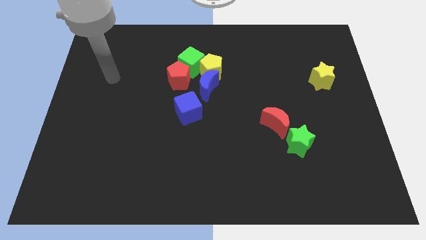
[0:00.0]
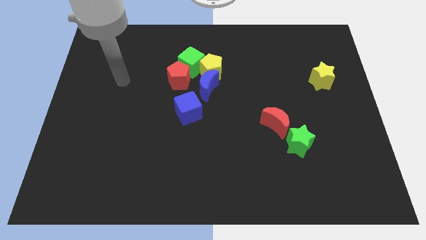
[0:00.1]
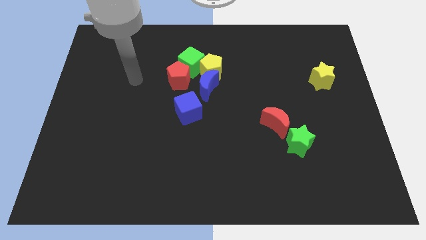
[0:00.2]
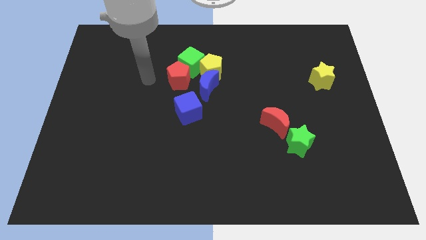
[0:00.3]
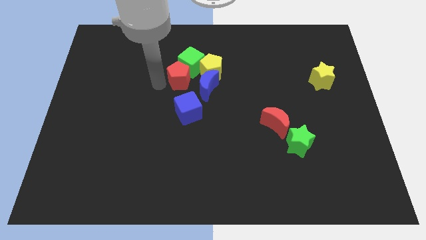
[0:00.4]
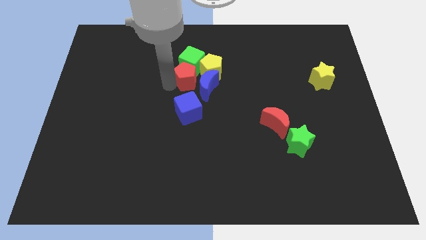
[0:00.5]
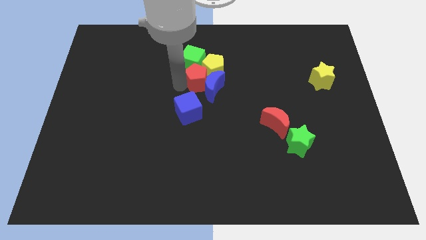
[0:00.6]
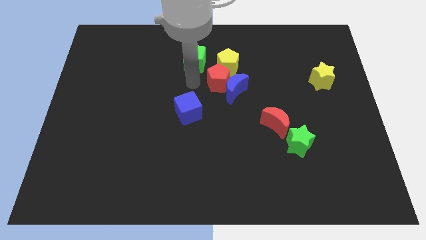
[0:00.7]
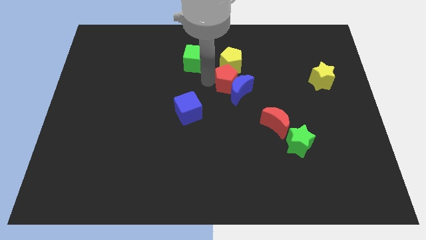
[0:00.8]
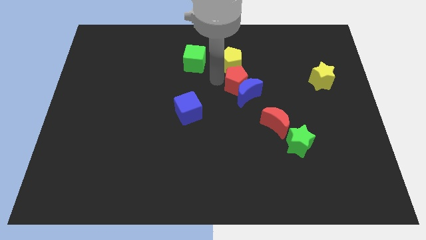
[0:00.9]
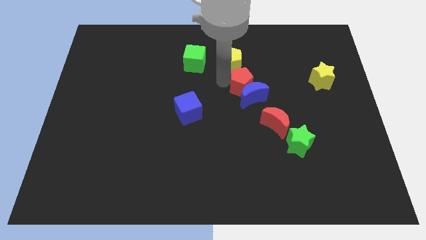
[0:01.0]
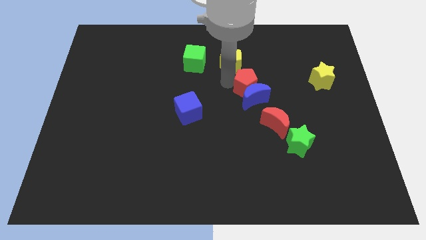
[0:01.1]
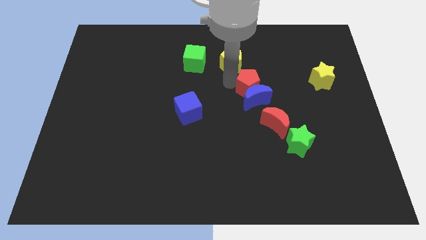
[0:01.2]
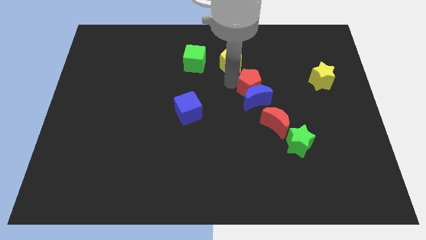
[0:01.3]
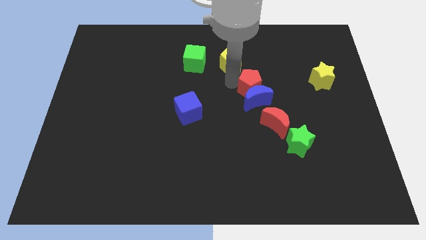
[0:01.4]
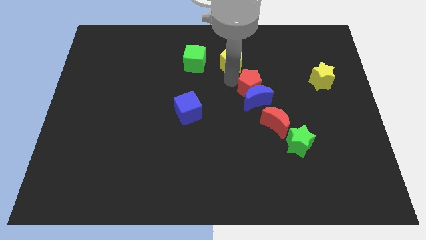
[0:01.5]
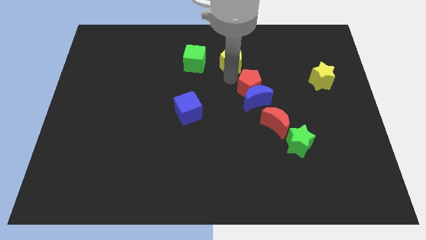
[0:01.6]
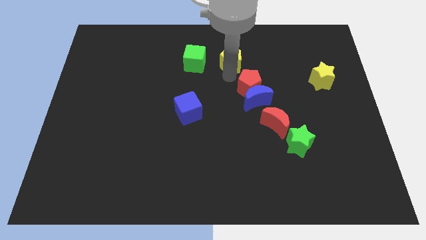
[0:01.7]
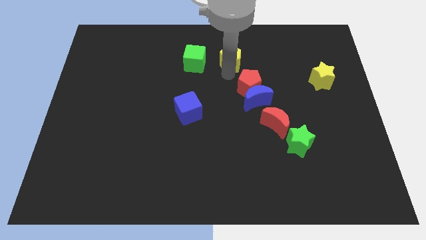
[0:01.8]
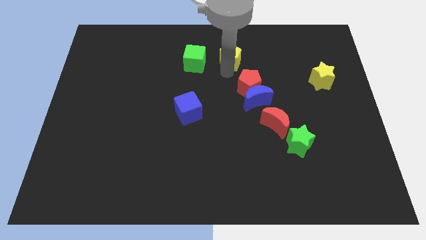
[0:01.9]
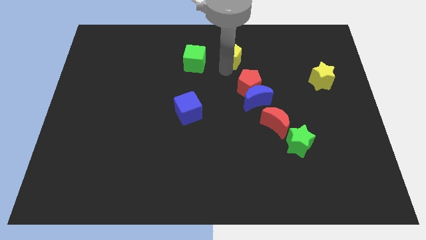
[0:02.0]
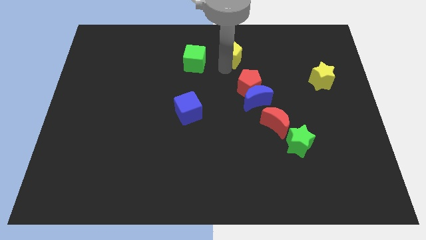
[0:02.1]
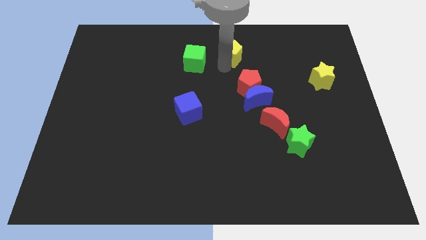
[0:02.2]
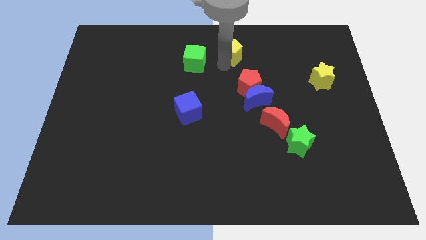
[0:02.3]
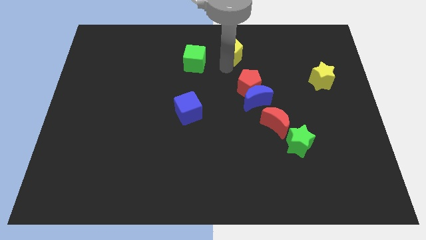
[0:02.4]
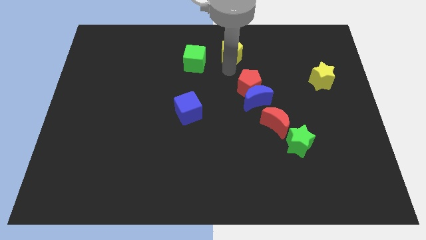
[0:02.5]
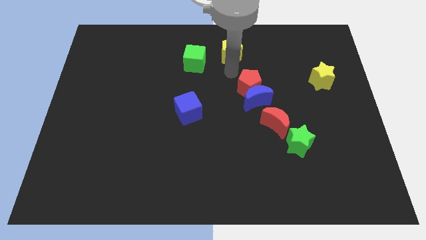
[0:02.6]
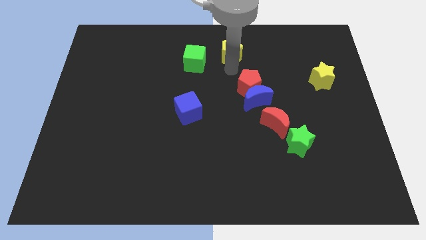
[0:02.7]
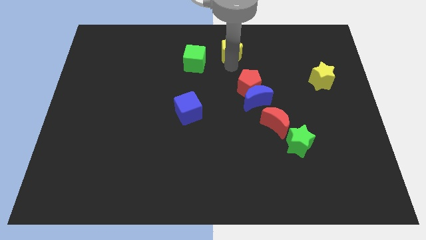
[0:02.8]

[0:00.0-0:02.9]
pull the yellow pentagon apart from the group

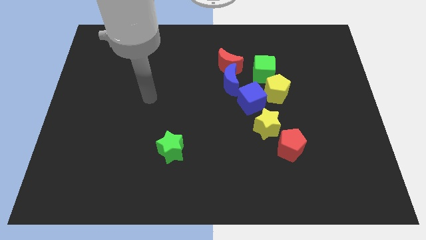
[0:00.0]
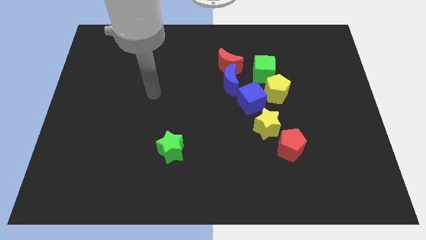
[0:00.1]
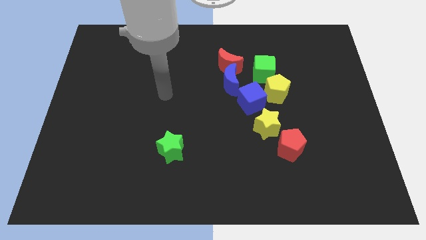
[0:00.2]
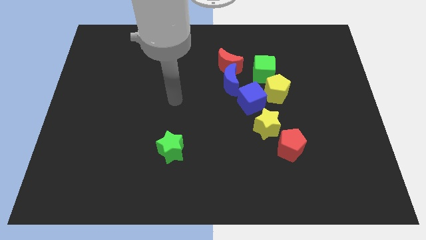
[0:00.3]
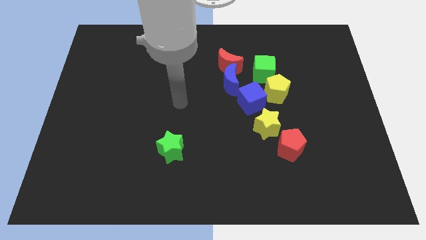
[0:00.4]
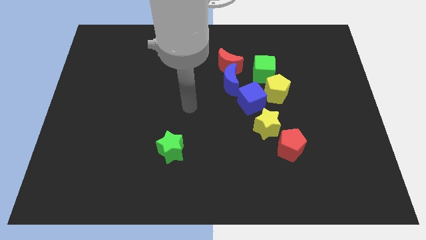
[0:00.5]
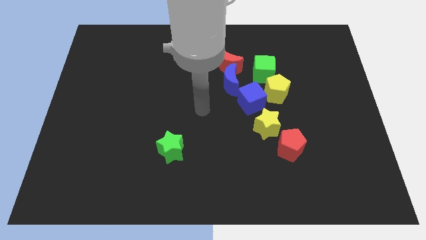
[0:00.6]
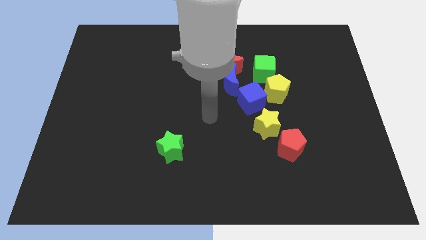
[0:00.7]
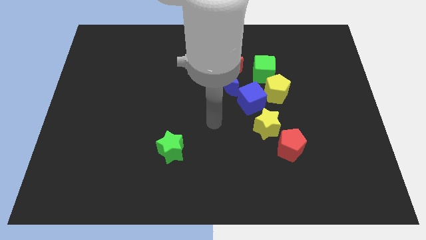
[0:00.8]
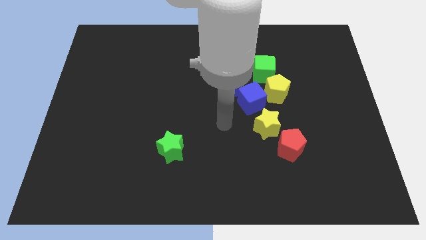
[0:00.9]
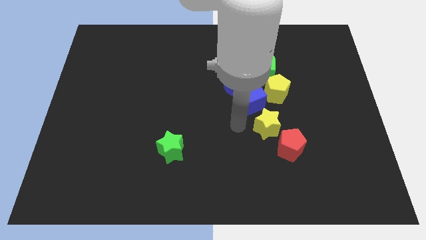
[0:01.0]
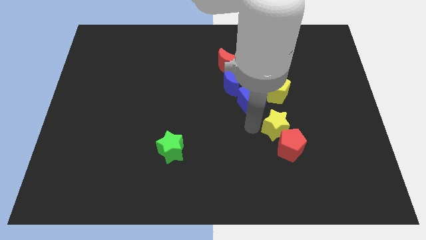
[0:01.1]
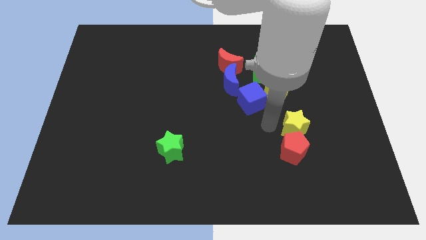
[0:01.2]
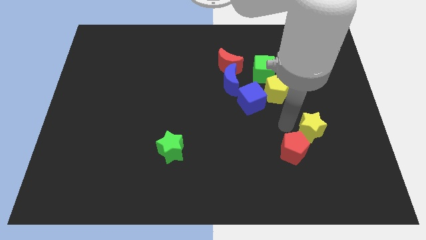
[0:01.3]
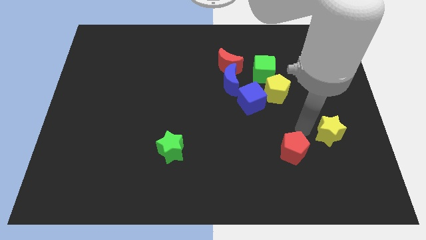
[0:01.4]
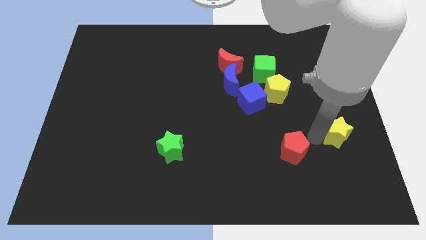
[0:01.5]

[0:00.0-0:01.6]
separate the red pentagon from the yellow star

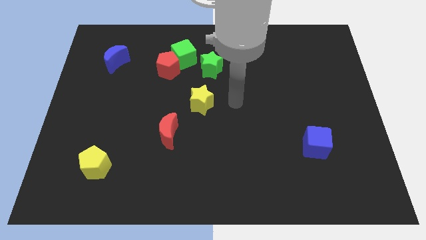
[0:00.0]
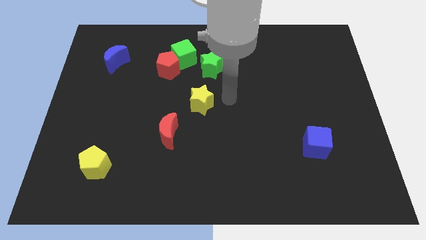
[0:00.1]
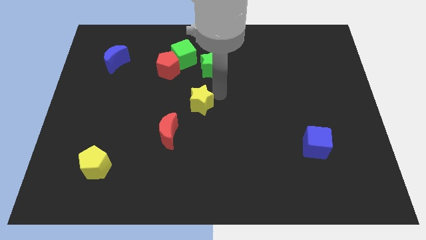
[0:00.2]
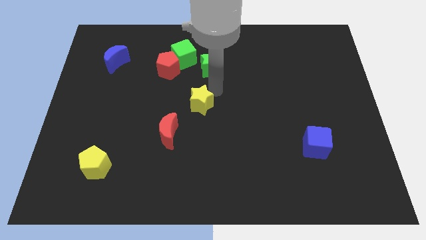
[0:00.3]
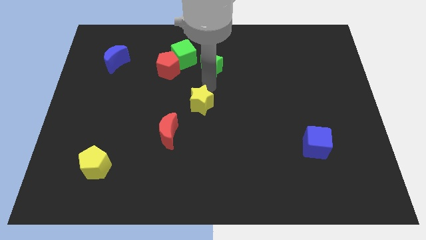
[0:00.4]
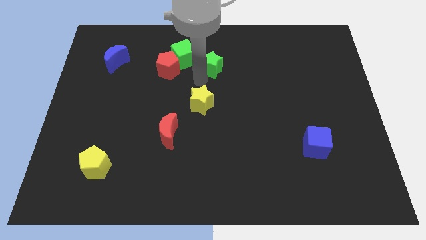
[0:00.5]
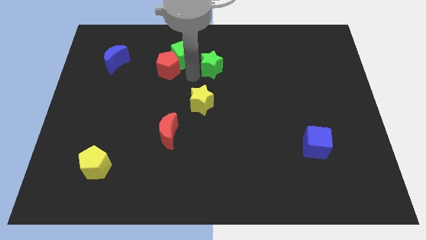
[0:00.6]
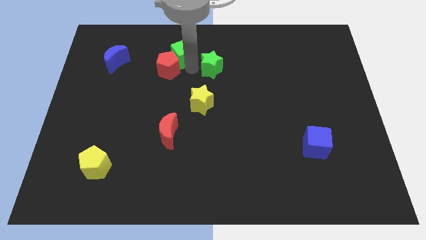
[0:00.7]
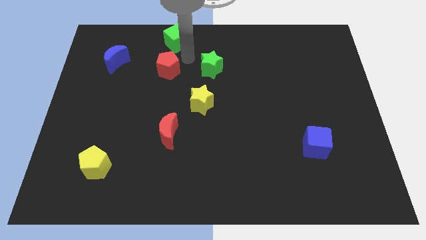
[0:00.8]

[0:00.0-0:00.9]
separate the red pentagon from the green cube

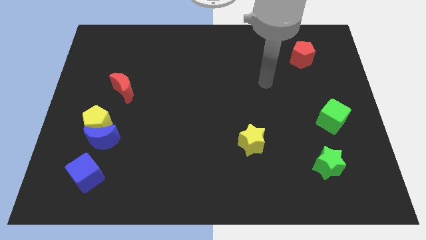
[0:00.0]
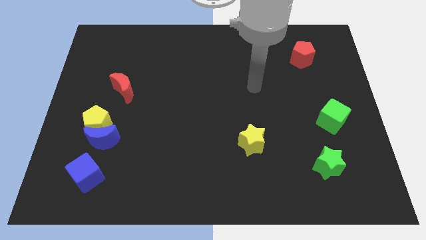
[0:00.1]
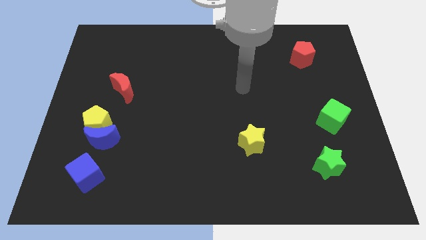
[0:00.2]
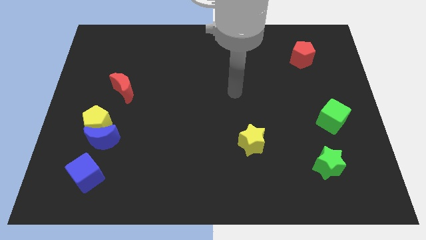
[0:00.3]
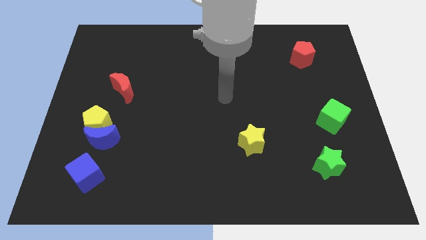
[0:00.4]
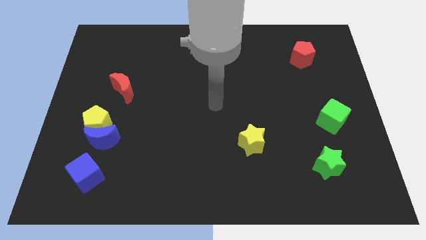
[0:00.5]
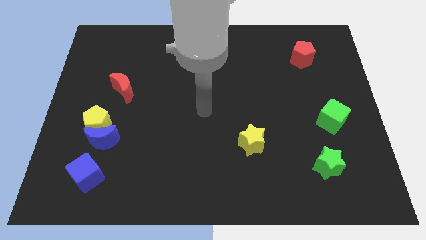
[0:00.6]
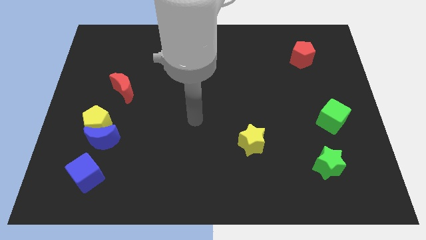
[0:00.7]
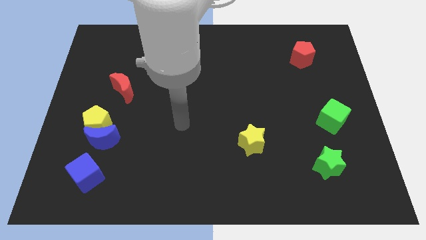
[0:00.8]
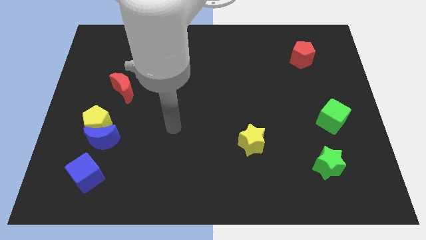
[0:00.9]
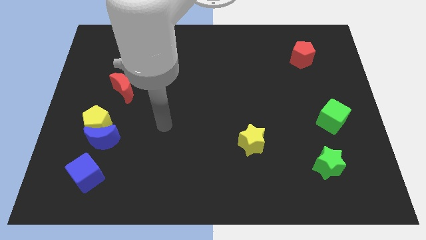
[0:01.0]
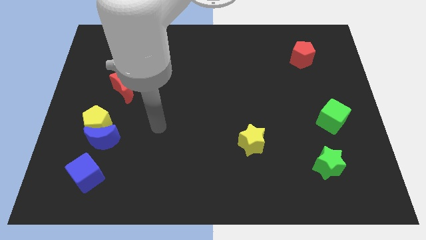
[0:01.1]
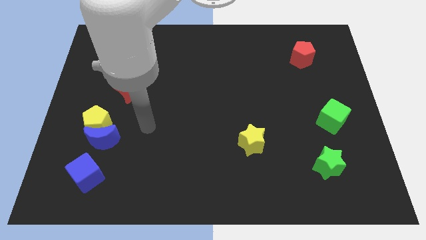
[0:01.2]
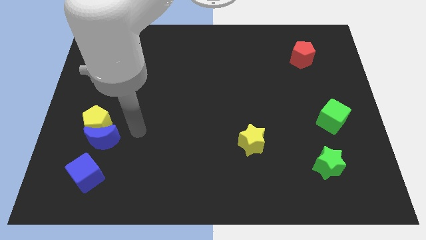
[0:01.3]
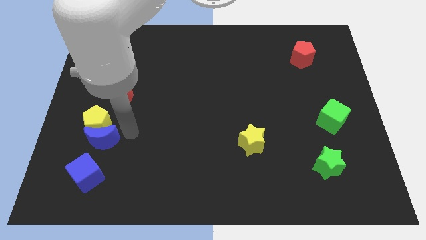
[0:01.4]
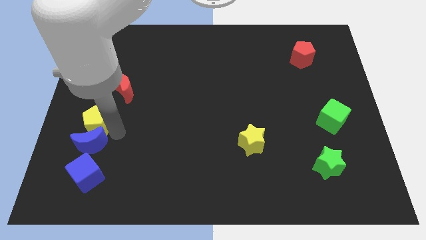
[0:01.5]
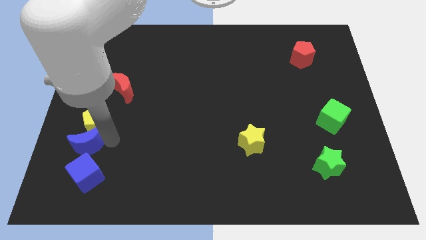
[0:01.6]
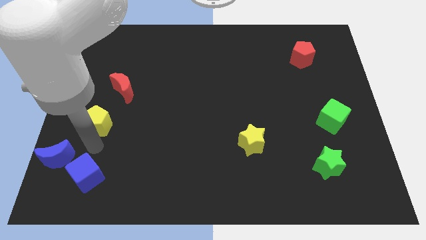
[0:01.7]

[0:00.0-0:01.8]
separate the yellow pentagon from the blue moon

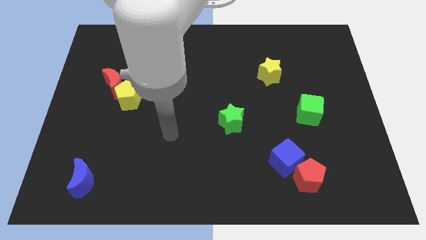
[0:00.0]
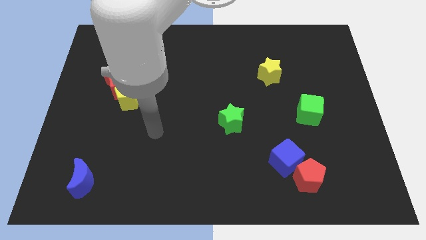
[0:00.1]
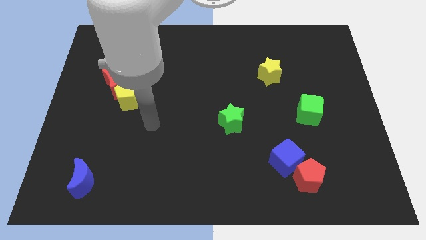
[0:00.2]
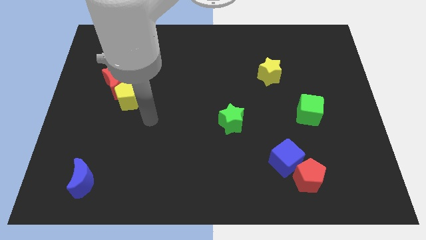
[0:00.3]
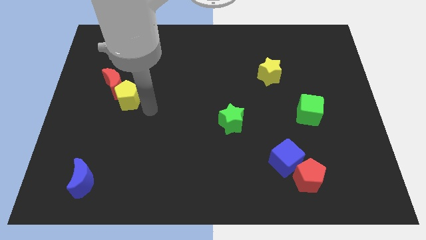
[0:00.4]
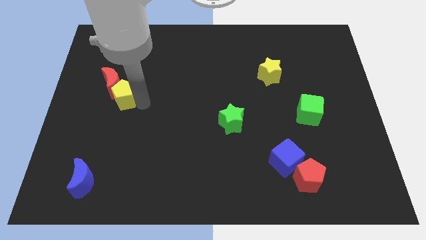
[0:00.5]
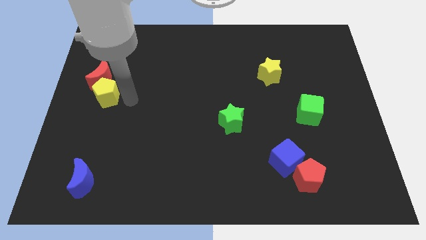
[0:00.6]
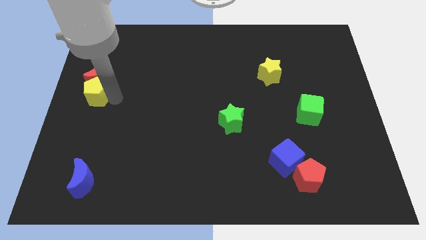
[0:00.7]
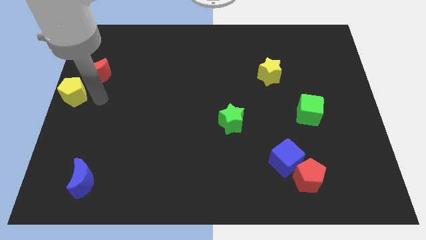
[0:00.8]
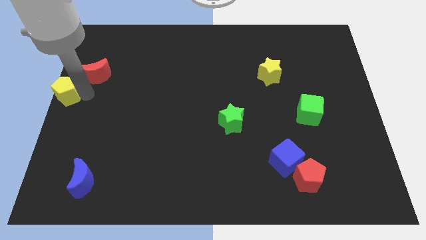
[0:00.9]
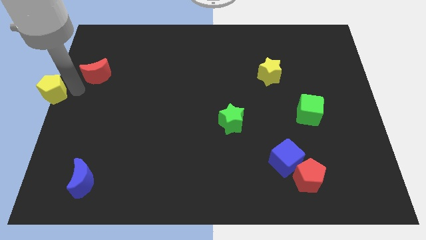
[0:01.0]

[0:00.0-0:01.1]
move the red moon away from the yellow pentagon

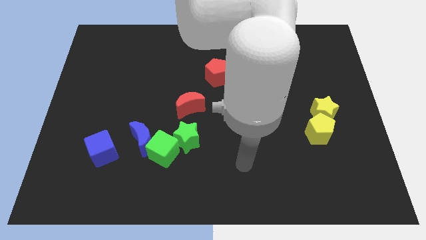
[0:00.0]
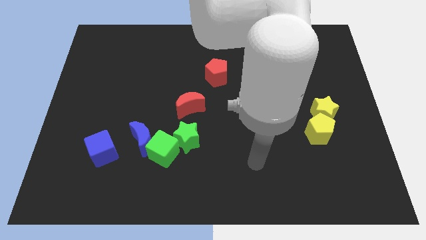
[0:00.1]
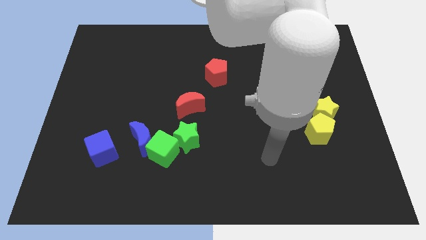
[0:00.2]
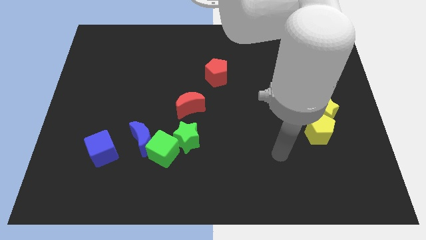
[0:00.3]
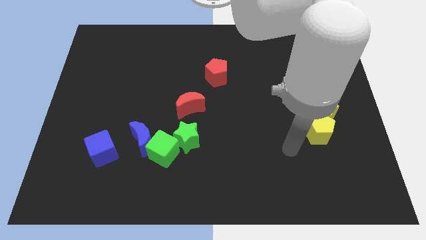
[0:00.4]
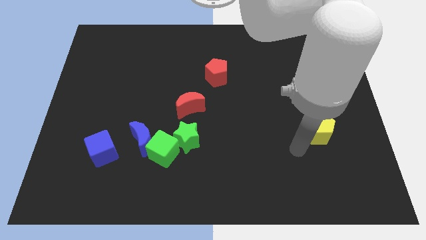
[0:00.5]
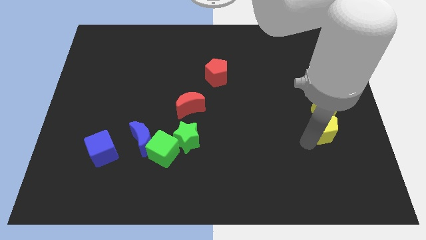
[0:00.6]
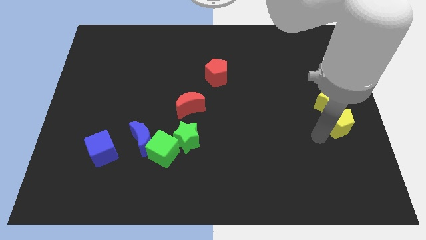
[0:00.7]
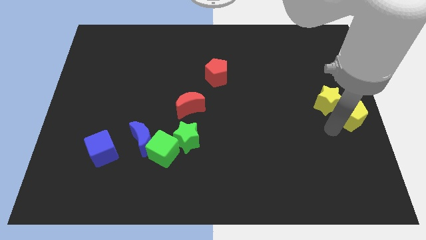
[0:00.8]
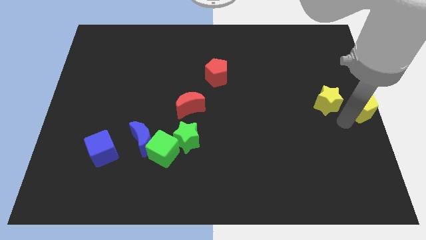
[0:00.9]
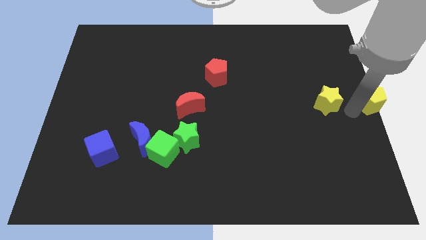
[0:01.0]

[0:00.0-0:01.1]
pull the yellow star apart from the yellow pentagon
